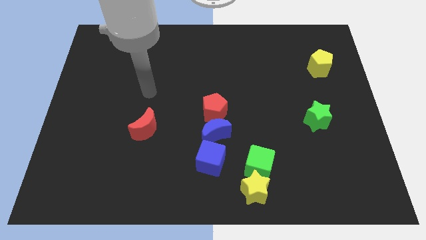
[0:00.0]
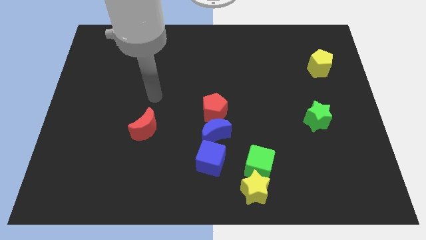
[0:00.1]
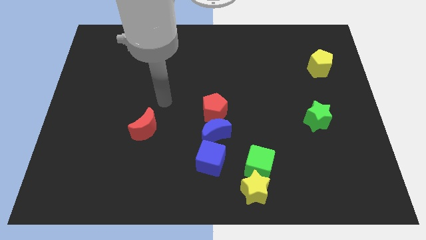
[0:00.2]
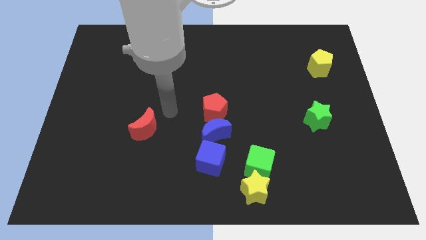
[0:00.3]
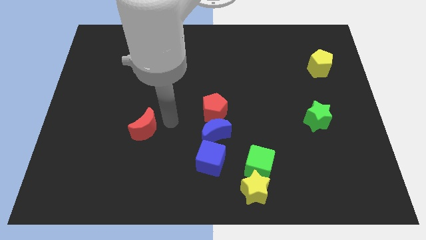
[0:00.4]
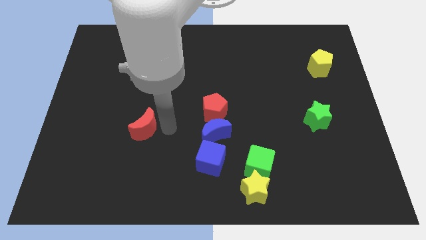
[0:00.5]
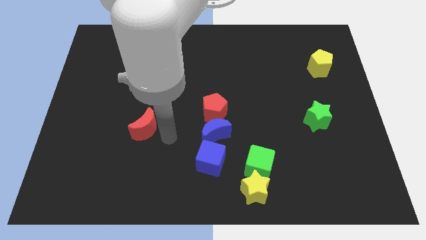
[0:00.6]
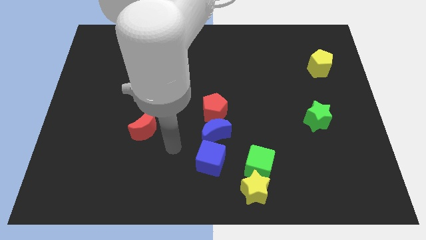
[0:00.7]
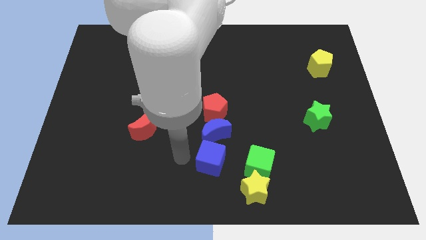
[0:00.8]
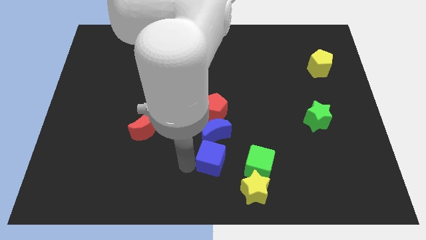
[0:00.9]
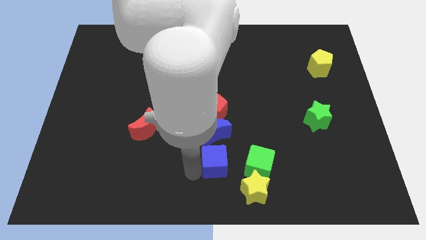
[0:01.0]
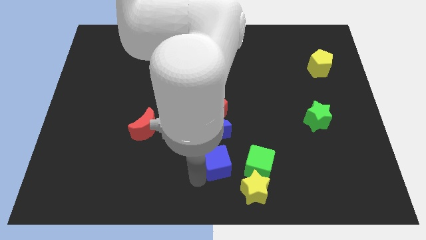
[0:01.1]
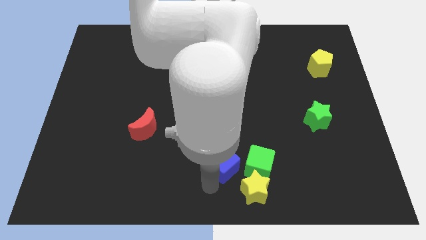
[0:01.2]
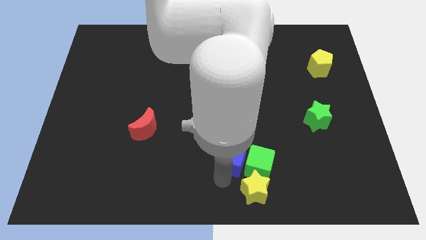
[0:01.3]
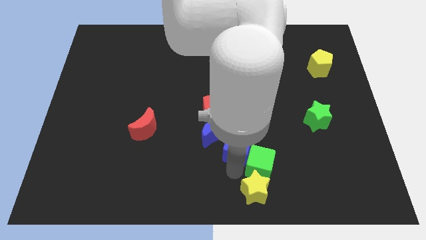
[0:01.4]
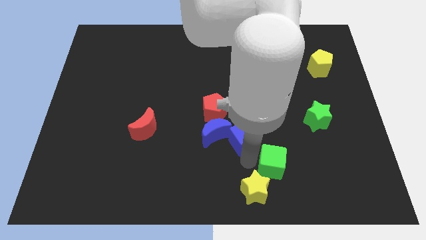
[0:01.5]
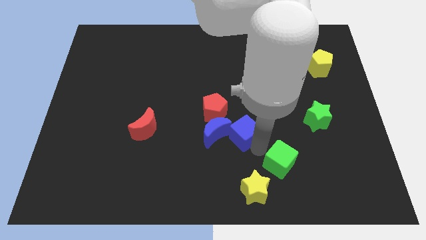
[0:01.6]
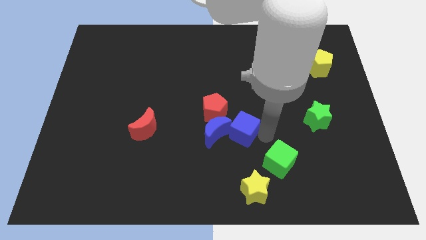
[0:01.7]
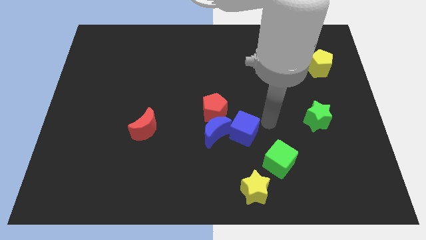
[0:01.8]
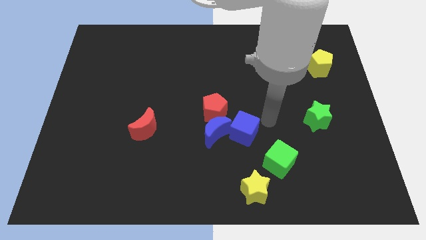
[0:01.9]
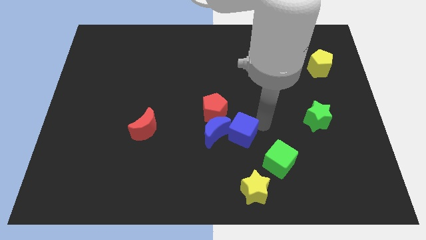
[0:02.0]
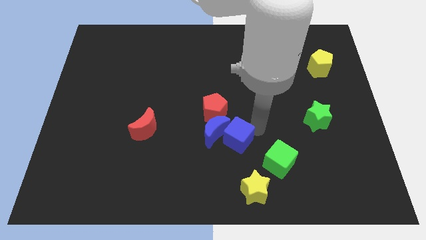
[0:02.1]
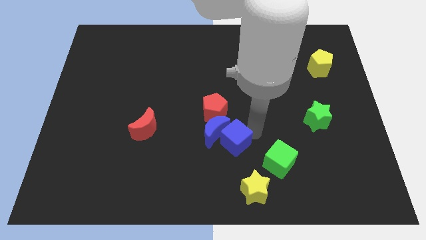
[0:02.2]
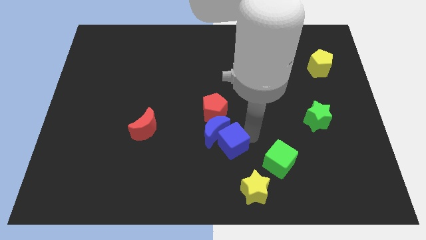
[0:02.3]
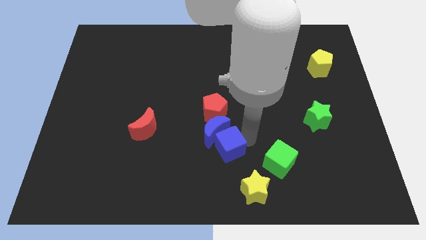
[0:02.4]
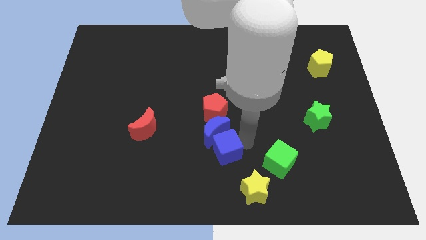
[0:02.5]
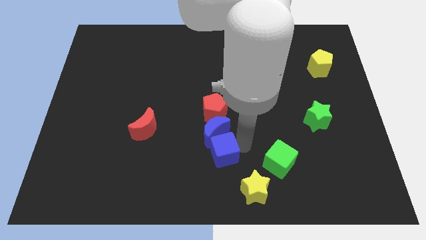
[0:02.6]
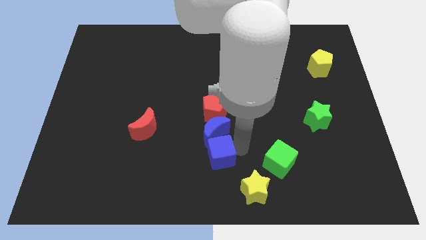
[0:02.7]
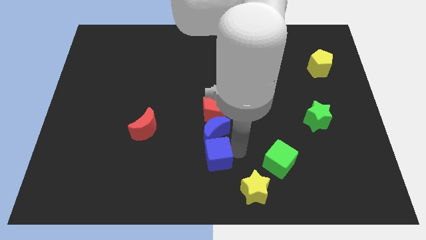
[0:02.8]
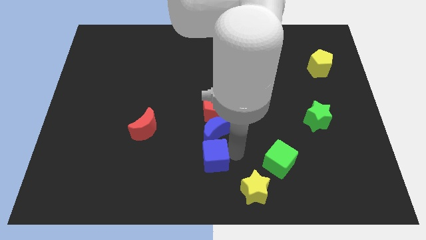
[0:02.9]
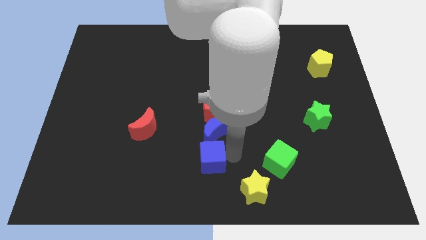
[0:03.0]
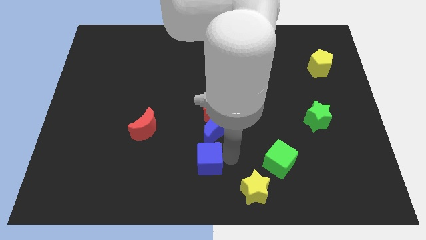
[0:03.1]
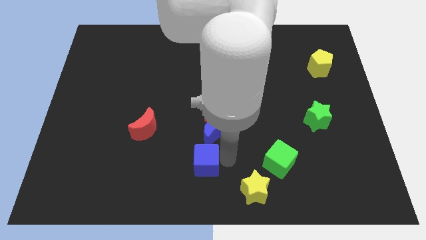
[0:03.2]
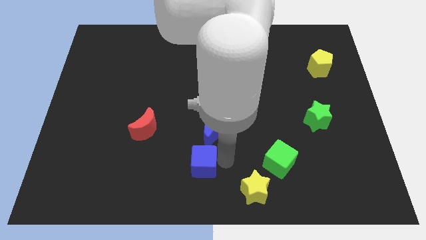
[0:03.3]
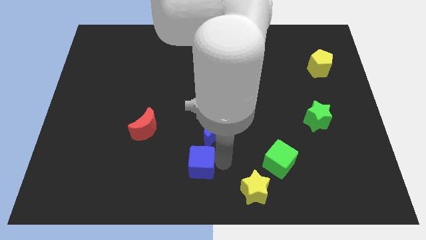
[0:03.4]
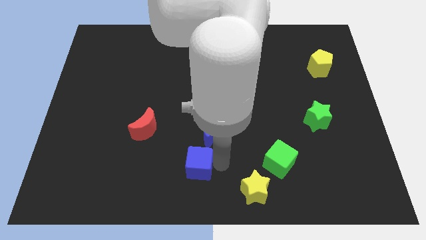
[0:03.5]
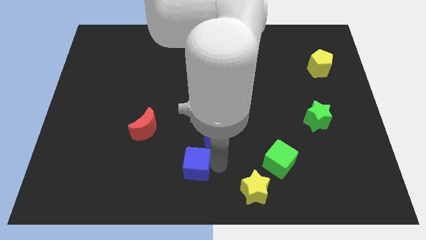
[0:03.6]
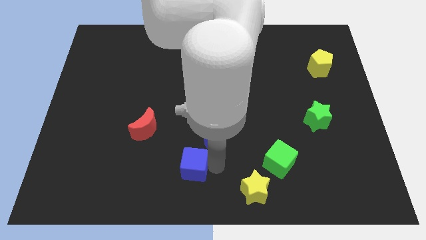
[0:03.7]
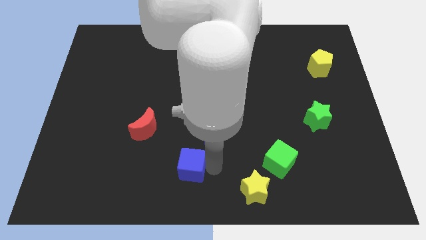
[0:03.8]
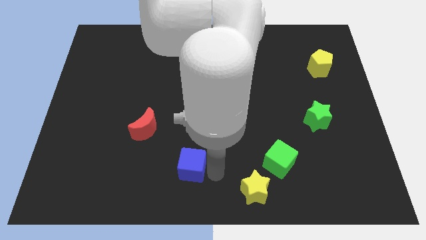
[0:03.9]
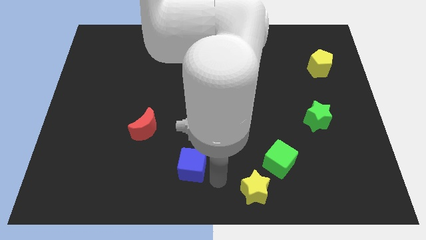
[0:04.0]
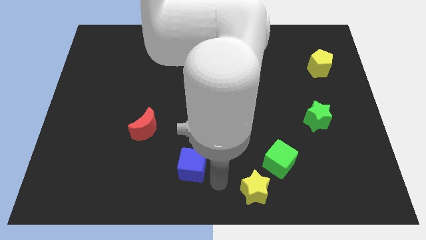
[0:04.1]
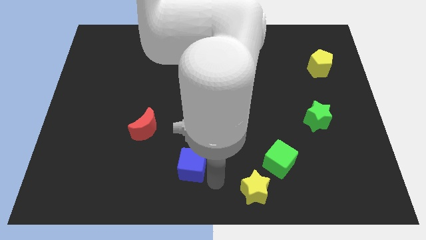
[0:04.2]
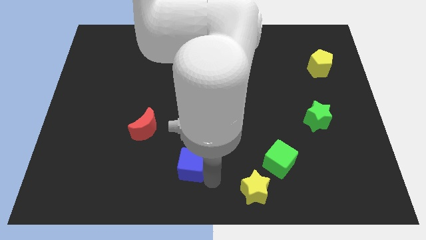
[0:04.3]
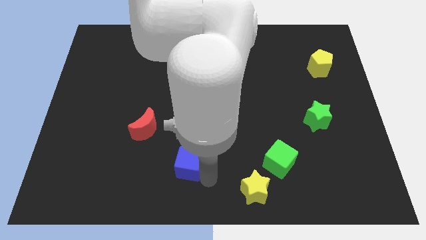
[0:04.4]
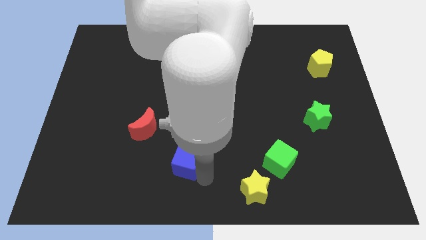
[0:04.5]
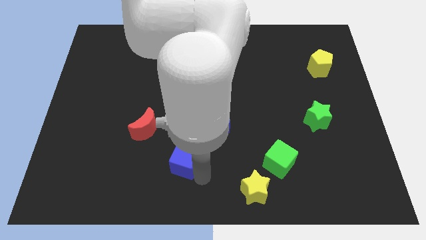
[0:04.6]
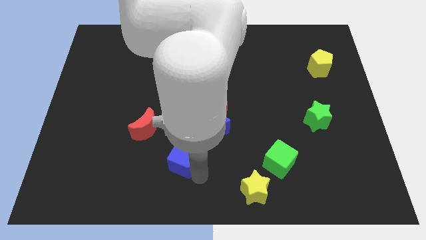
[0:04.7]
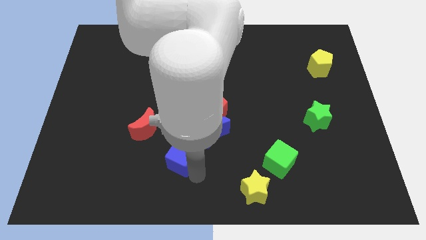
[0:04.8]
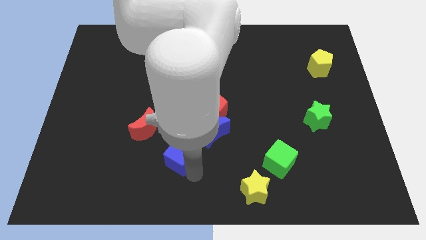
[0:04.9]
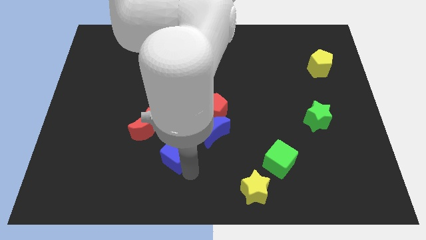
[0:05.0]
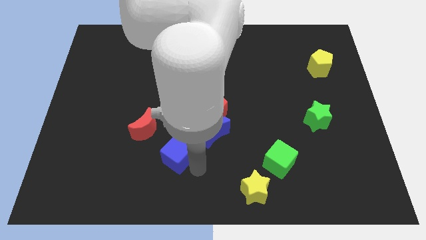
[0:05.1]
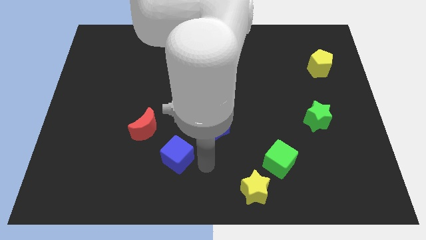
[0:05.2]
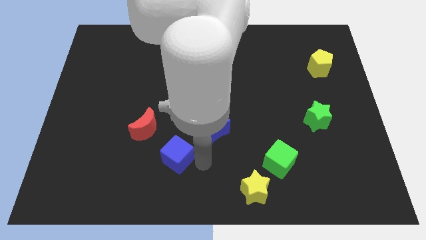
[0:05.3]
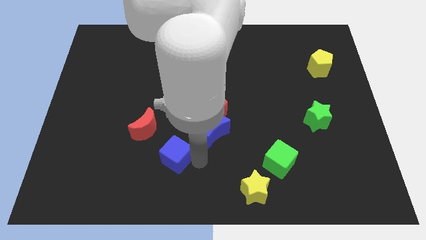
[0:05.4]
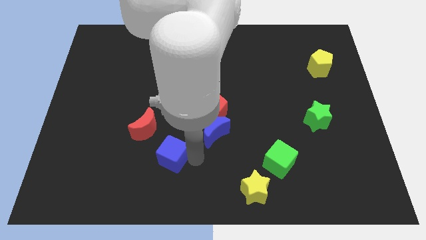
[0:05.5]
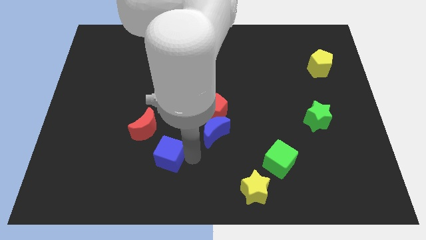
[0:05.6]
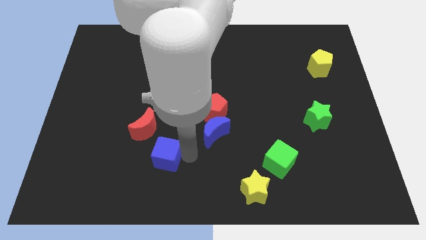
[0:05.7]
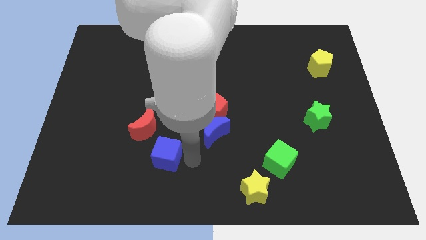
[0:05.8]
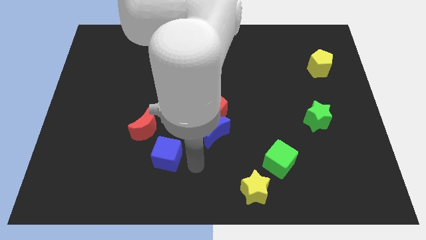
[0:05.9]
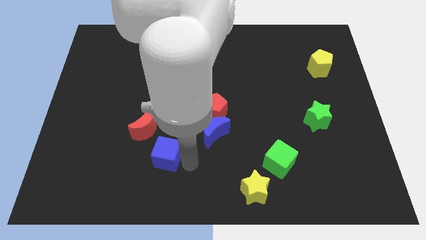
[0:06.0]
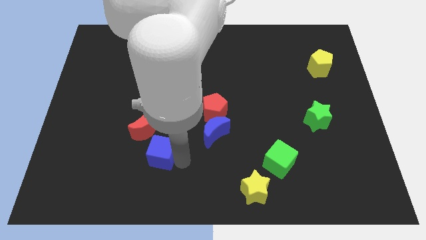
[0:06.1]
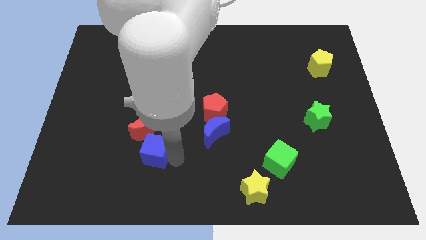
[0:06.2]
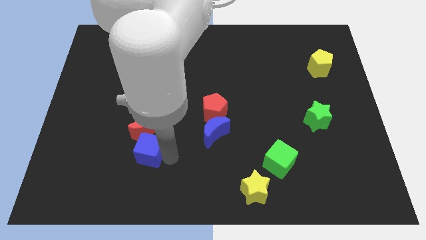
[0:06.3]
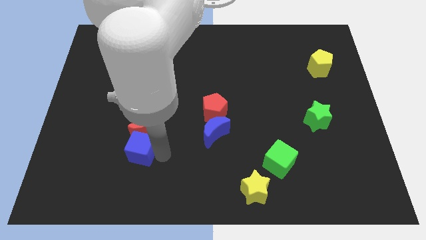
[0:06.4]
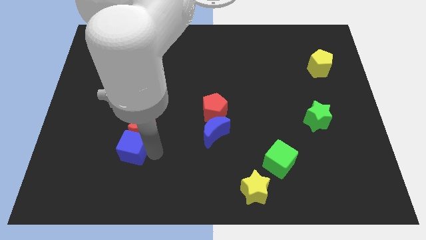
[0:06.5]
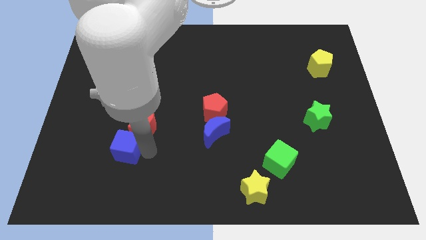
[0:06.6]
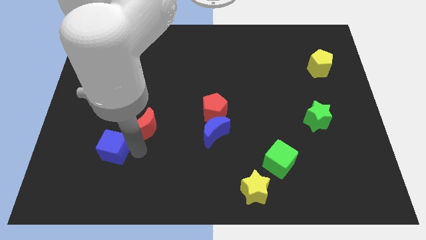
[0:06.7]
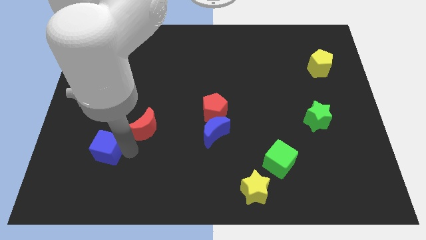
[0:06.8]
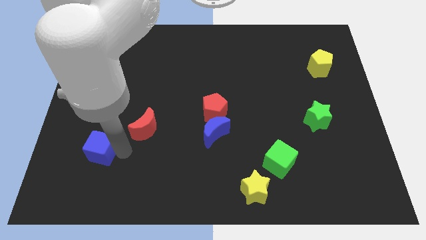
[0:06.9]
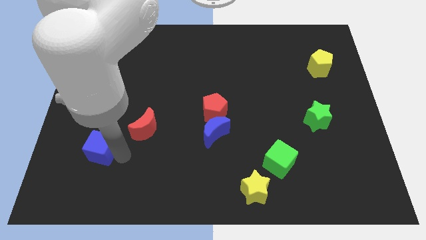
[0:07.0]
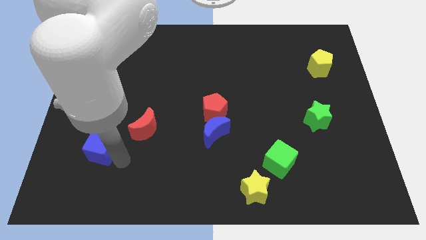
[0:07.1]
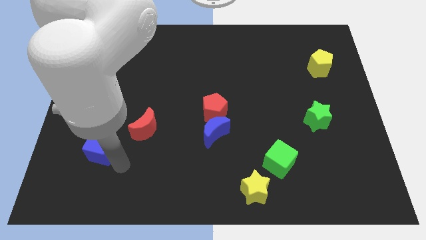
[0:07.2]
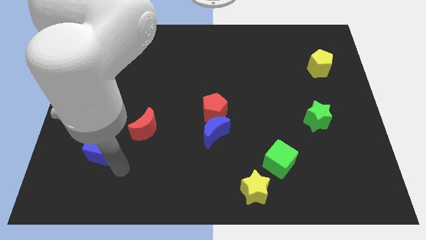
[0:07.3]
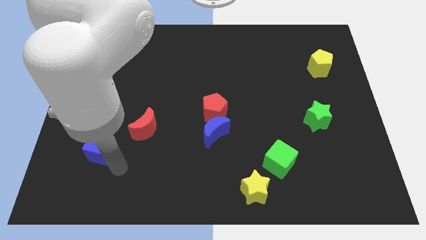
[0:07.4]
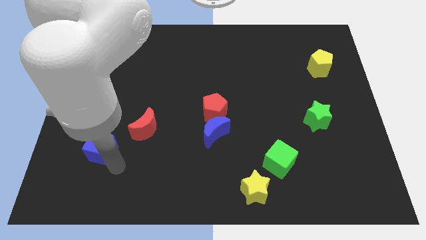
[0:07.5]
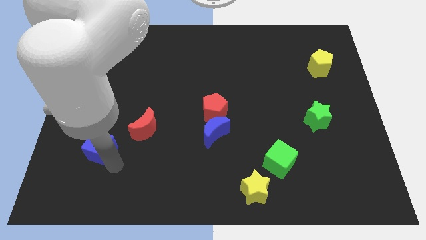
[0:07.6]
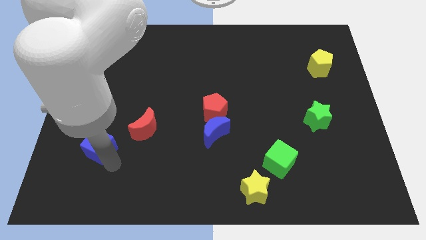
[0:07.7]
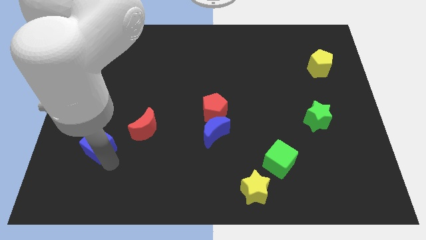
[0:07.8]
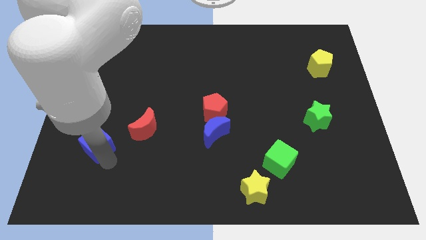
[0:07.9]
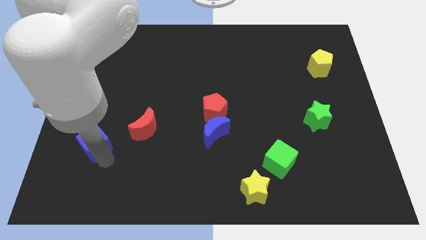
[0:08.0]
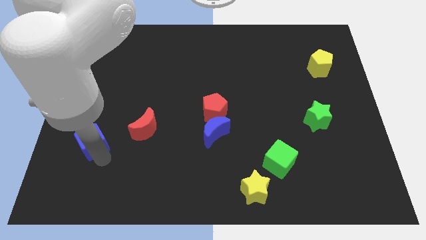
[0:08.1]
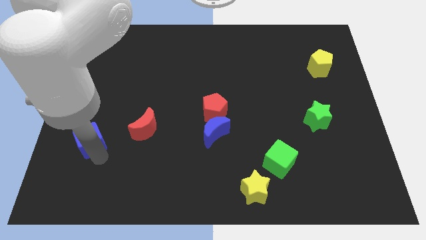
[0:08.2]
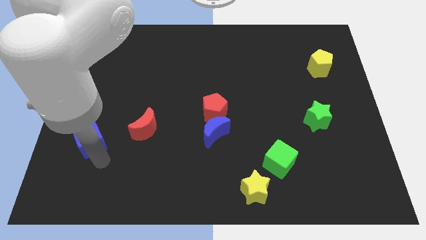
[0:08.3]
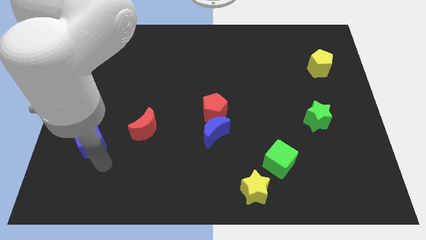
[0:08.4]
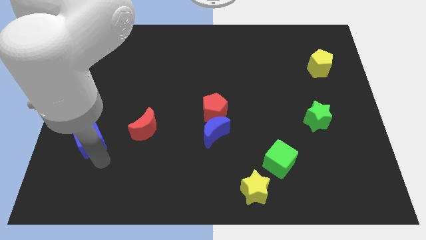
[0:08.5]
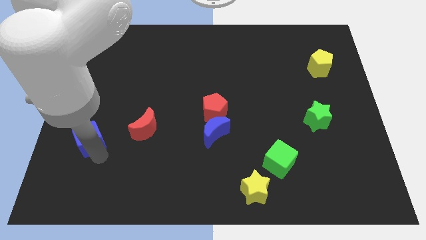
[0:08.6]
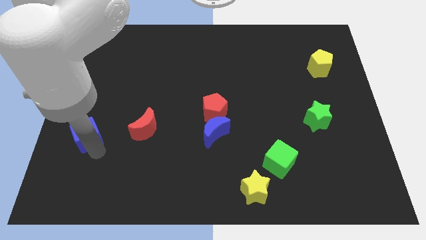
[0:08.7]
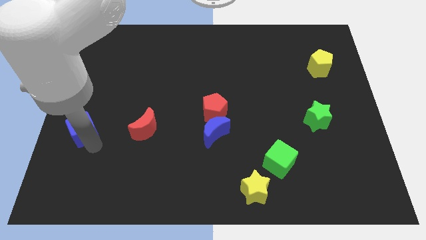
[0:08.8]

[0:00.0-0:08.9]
push the blue cube to the left side of the board
